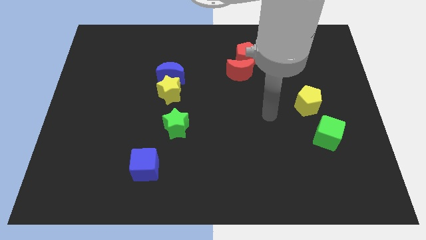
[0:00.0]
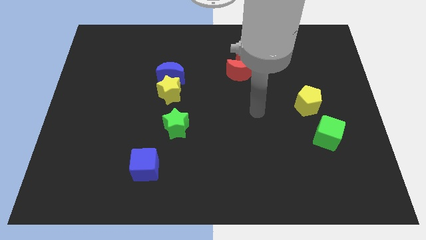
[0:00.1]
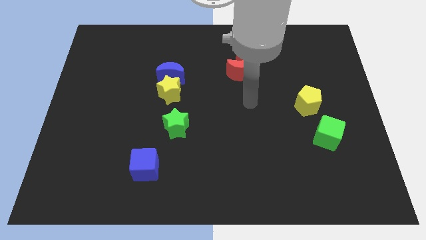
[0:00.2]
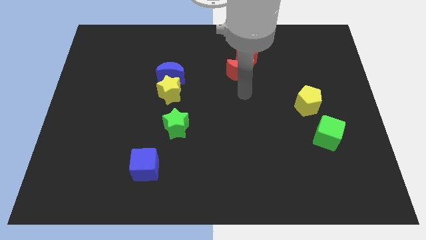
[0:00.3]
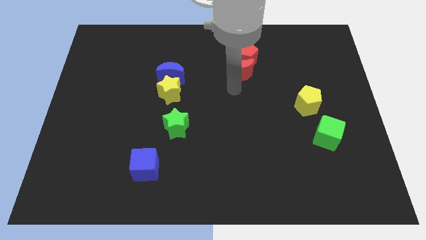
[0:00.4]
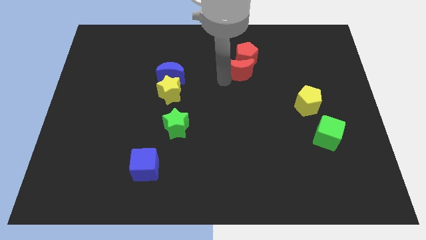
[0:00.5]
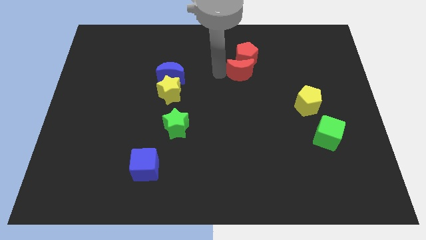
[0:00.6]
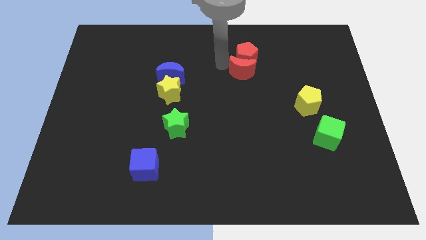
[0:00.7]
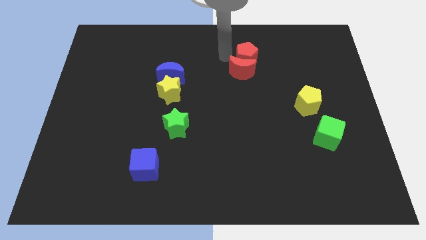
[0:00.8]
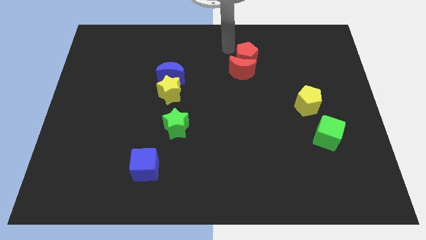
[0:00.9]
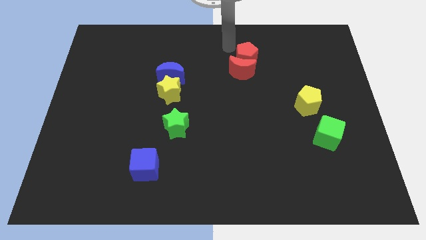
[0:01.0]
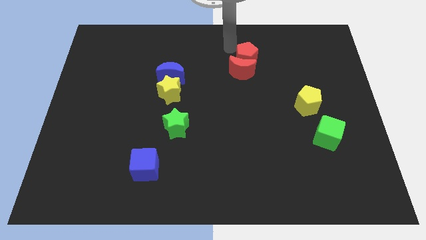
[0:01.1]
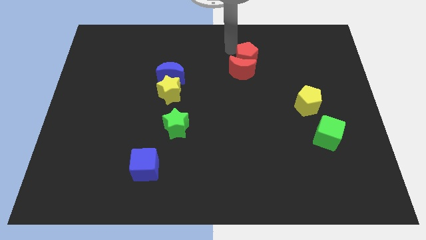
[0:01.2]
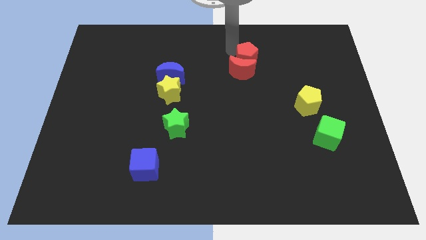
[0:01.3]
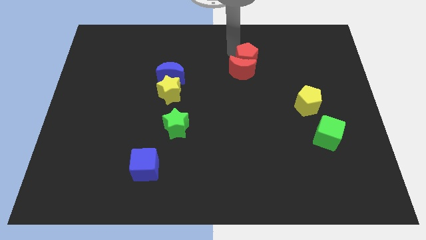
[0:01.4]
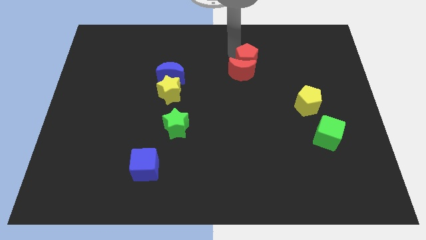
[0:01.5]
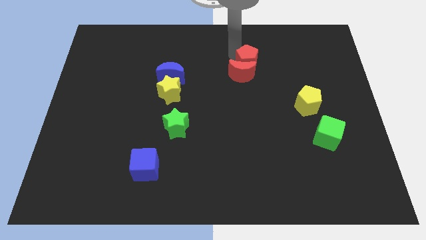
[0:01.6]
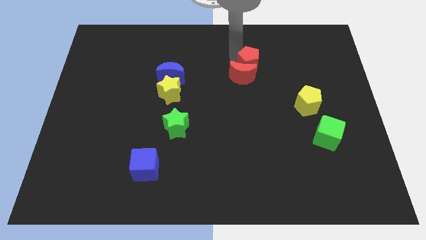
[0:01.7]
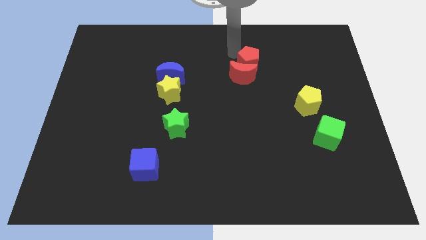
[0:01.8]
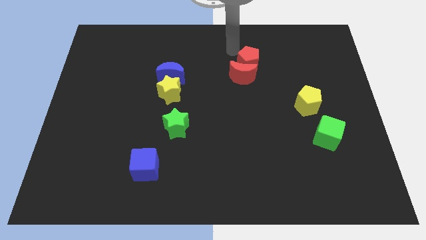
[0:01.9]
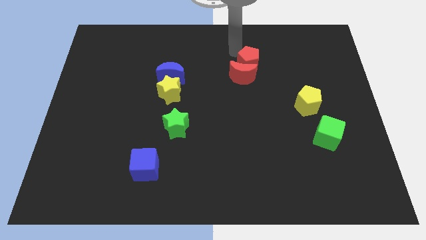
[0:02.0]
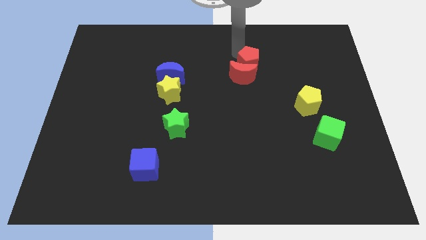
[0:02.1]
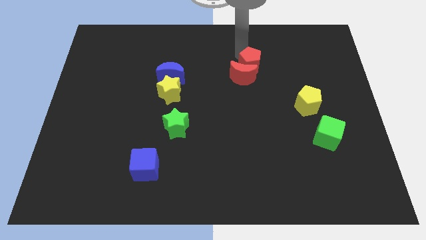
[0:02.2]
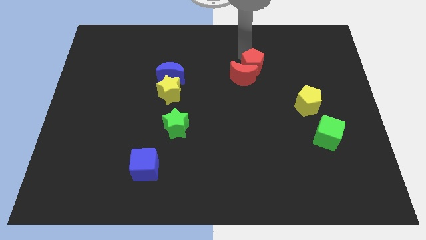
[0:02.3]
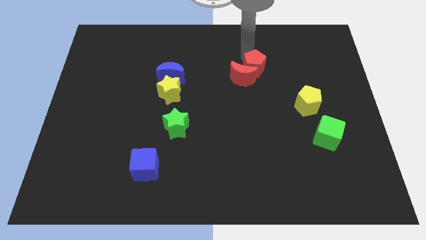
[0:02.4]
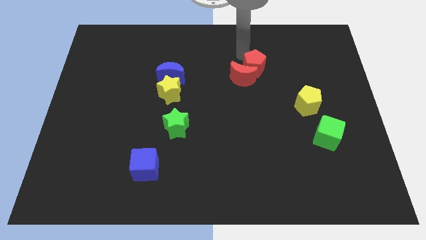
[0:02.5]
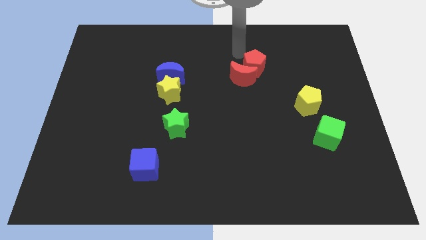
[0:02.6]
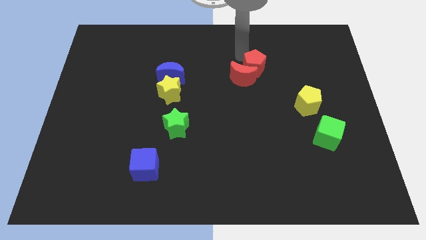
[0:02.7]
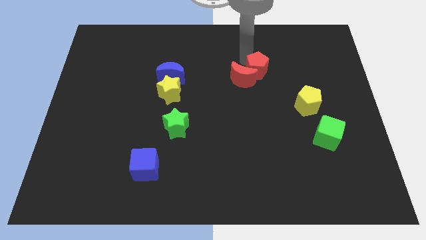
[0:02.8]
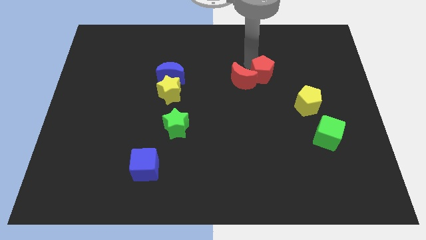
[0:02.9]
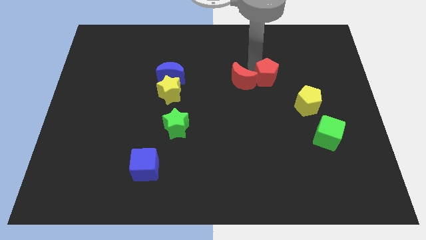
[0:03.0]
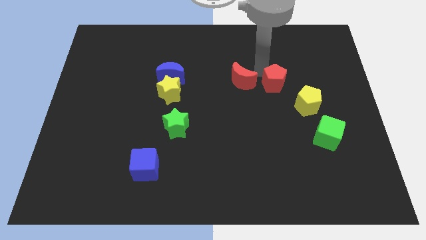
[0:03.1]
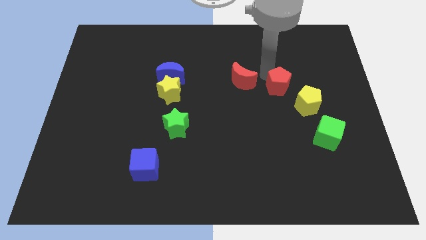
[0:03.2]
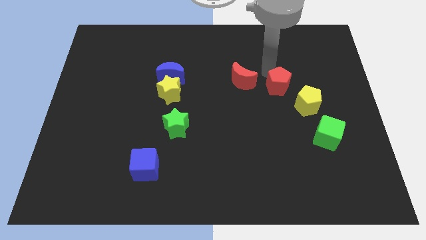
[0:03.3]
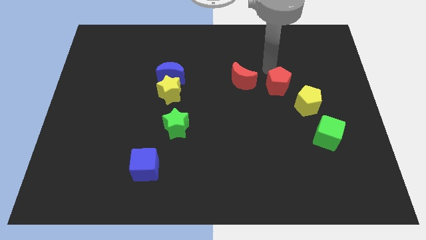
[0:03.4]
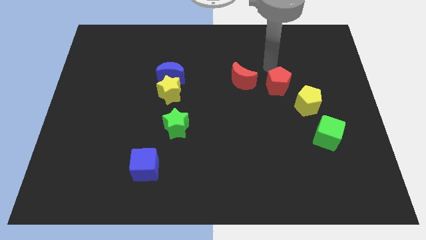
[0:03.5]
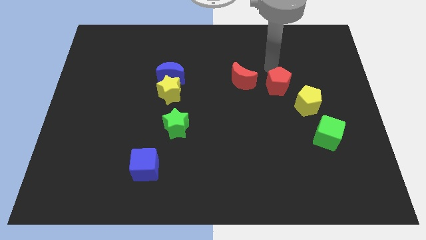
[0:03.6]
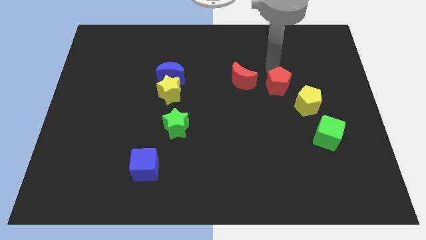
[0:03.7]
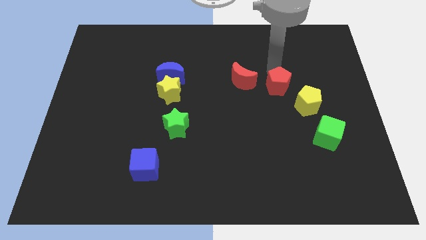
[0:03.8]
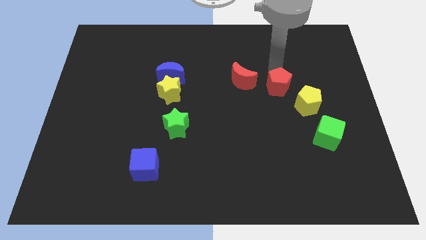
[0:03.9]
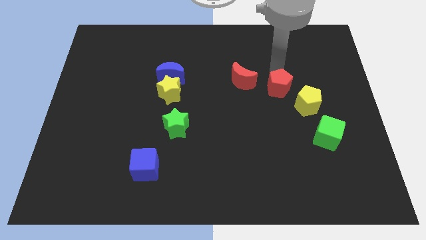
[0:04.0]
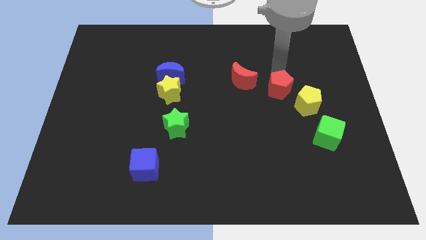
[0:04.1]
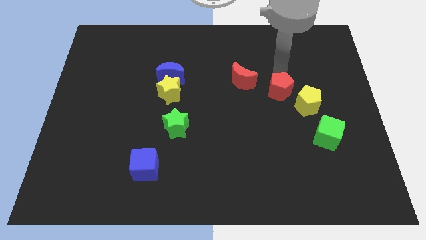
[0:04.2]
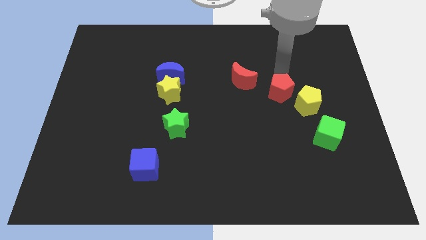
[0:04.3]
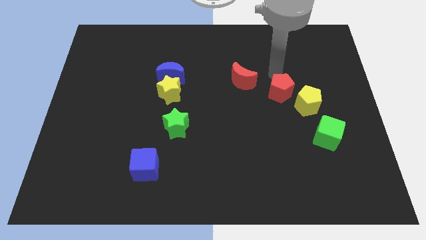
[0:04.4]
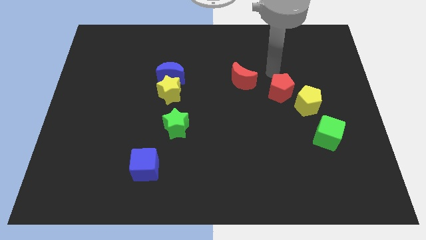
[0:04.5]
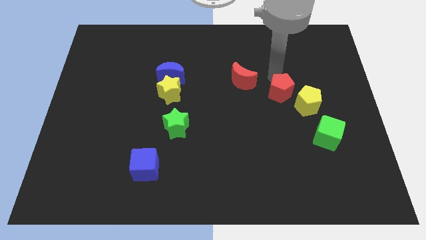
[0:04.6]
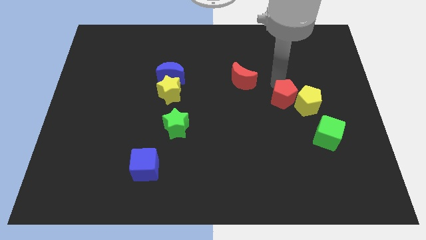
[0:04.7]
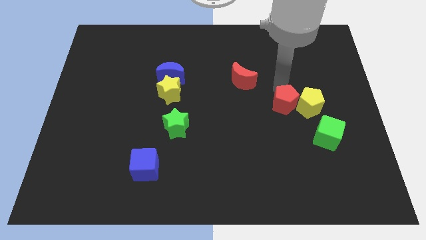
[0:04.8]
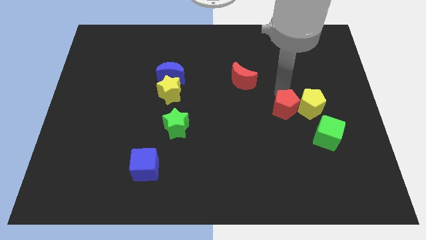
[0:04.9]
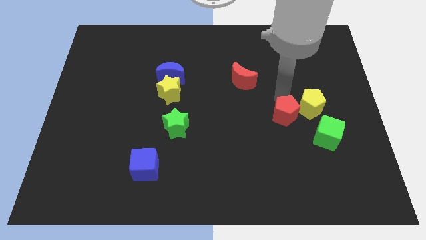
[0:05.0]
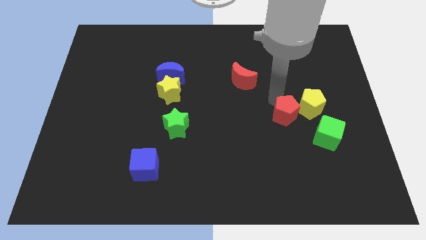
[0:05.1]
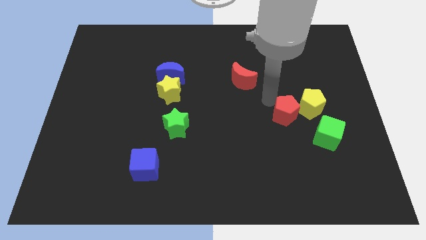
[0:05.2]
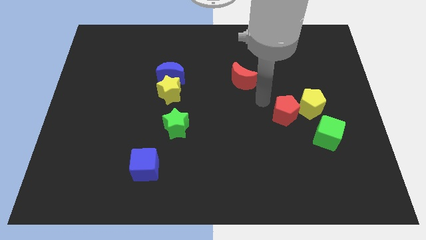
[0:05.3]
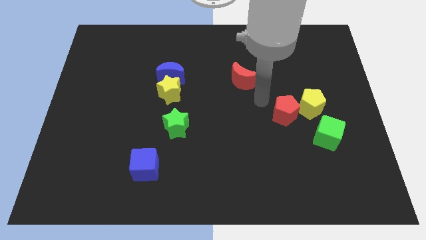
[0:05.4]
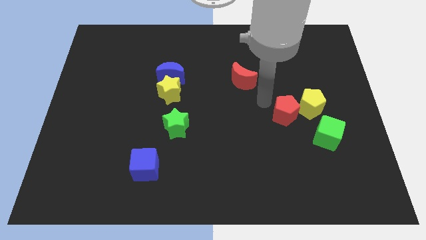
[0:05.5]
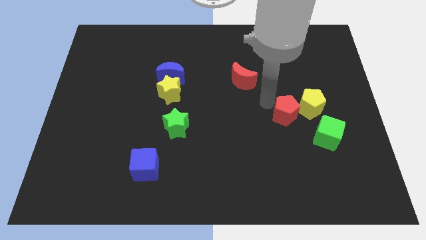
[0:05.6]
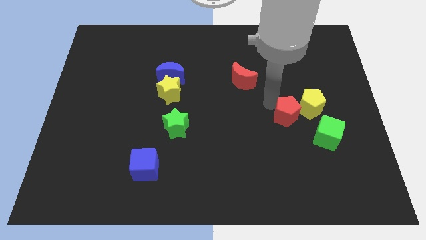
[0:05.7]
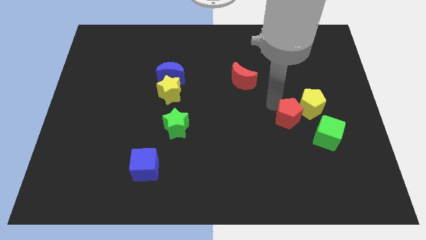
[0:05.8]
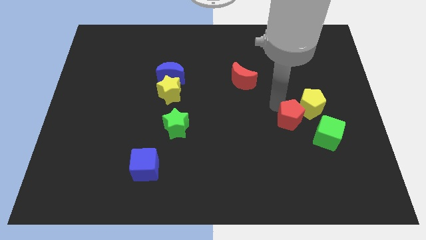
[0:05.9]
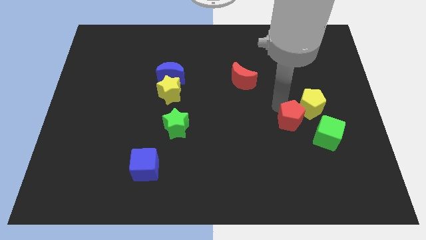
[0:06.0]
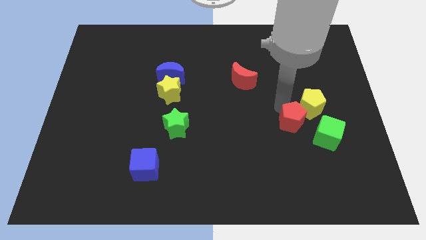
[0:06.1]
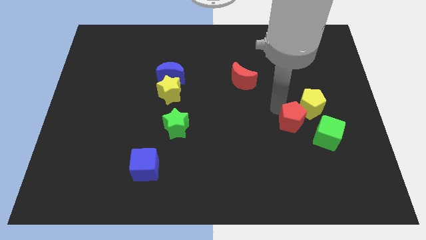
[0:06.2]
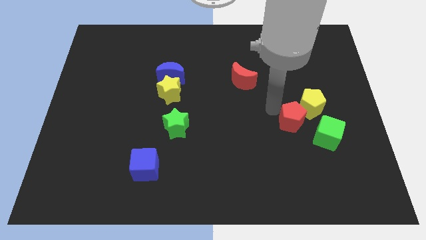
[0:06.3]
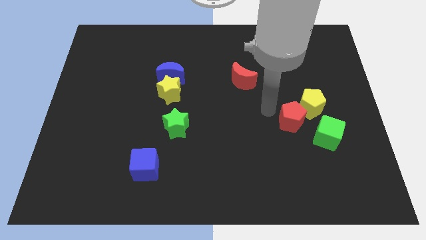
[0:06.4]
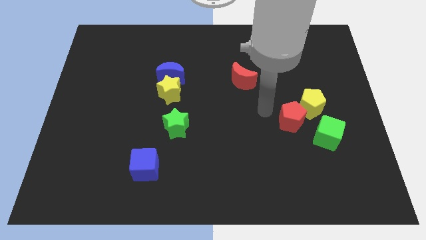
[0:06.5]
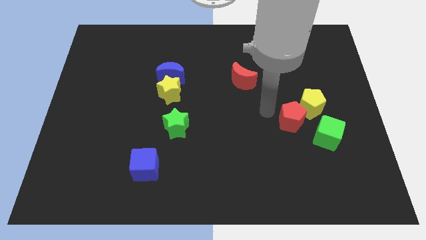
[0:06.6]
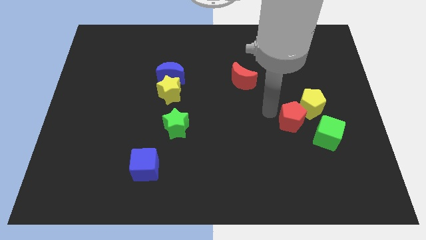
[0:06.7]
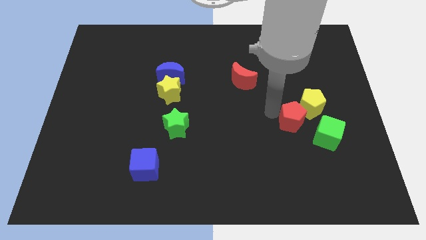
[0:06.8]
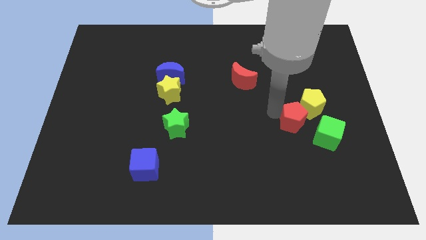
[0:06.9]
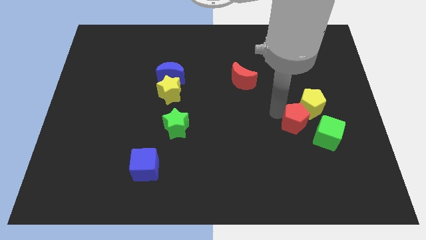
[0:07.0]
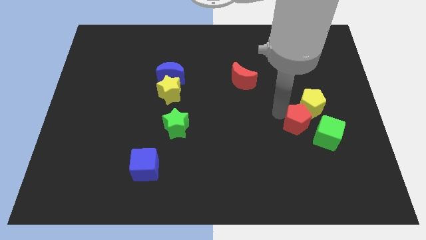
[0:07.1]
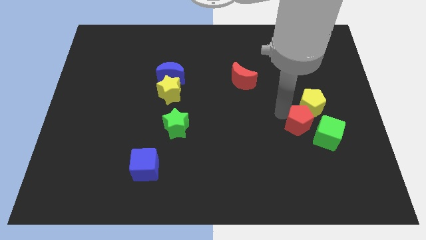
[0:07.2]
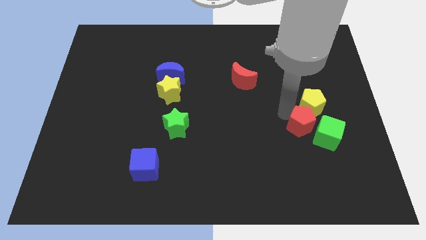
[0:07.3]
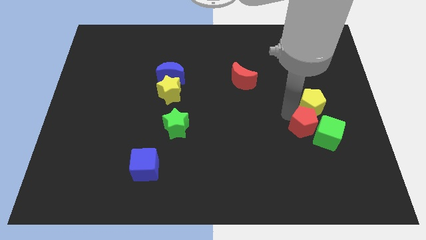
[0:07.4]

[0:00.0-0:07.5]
push the red pentagon next to the green cube

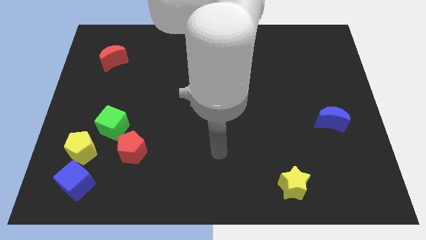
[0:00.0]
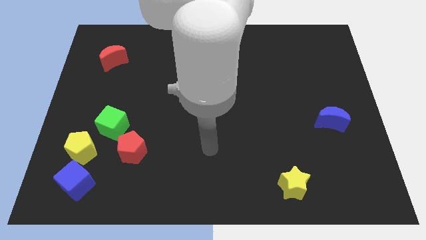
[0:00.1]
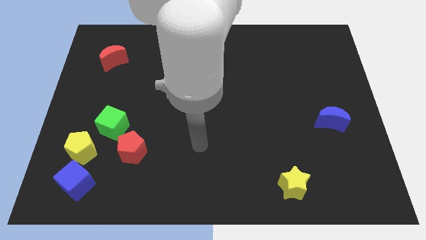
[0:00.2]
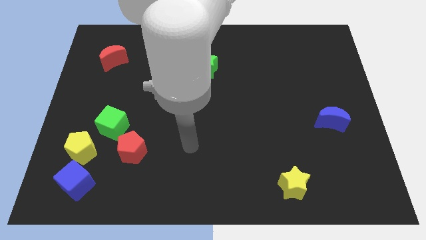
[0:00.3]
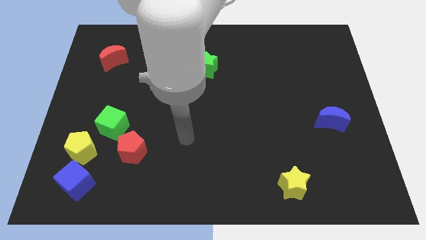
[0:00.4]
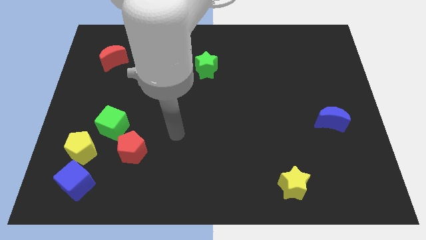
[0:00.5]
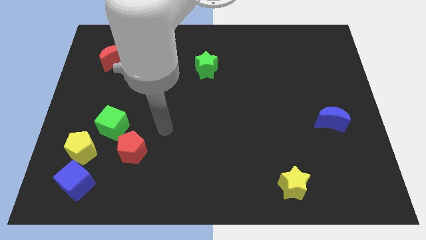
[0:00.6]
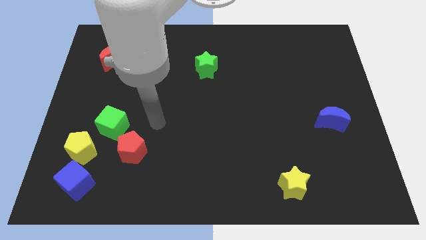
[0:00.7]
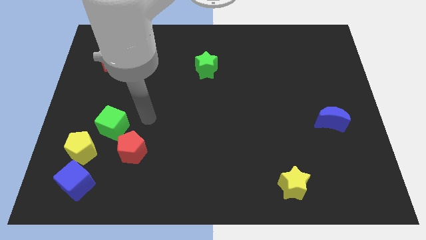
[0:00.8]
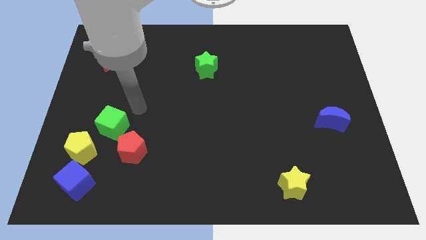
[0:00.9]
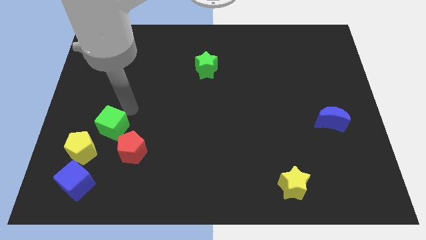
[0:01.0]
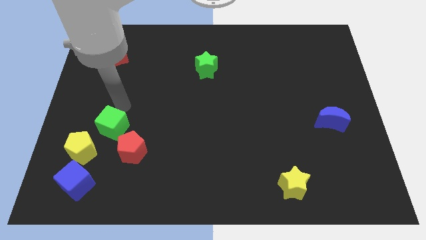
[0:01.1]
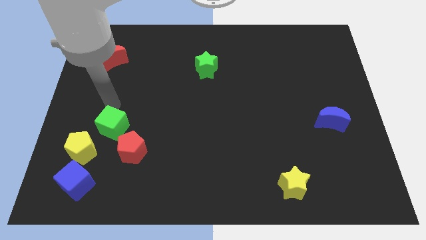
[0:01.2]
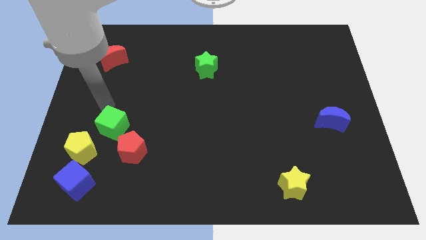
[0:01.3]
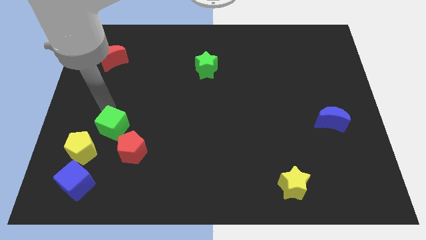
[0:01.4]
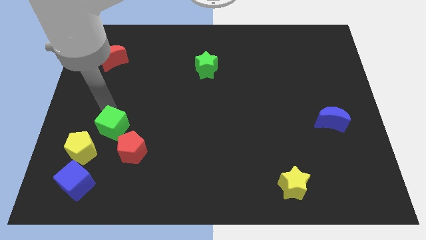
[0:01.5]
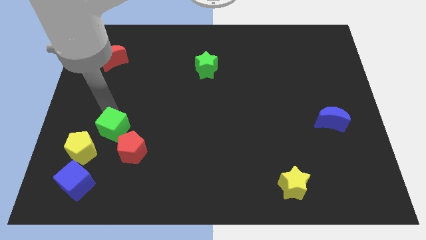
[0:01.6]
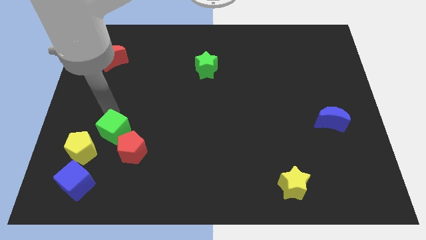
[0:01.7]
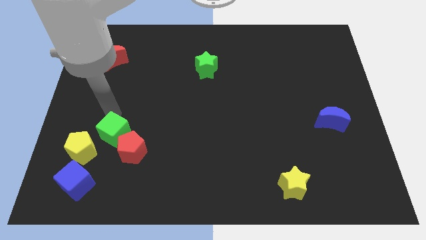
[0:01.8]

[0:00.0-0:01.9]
slide the green cube next to the red pentagon
